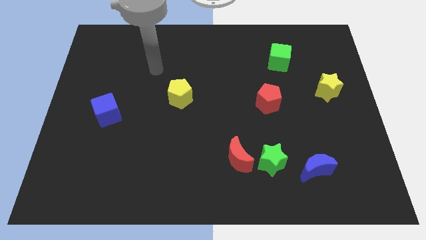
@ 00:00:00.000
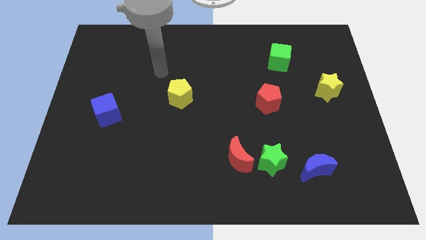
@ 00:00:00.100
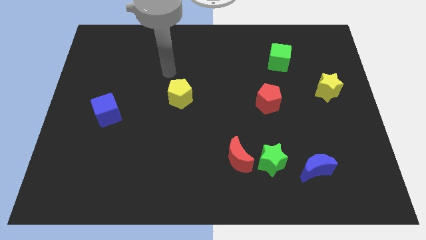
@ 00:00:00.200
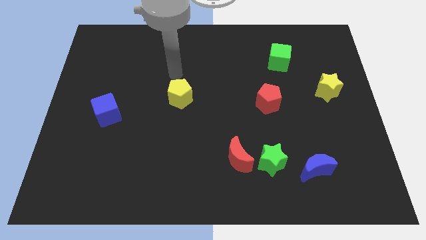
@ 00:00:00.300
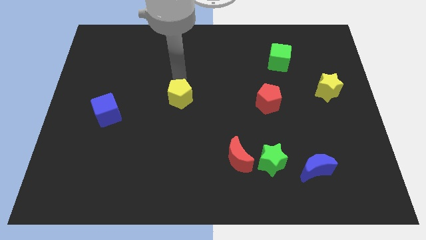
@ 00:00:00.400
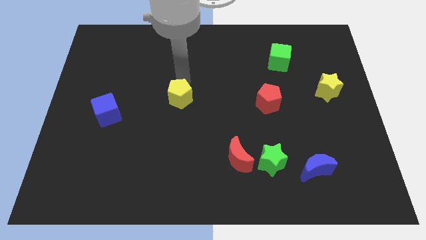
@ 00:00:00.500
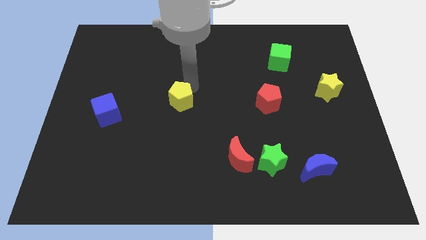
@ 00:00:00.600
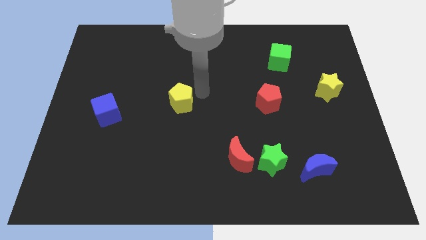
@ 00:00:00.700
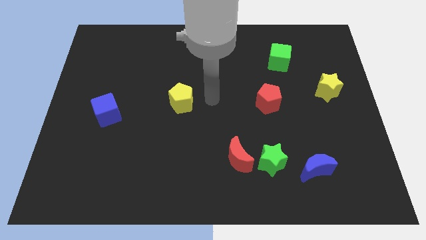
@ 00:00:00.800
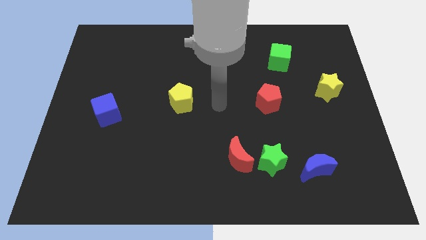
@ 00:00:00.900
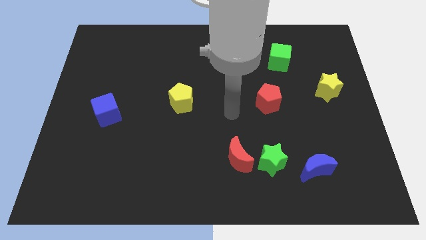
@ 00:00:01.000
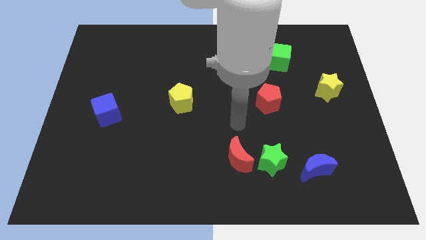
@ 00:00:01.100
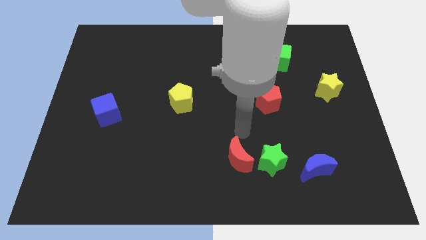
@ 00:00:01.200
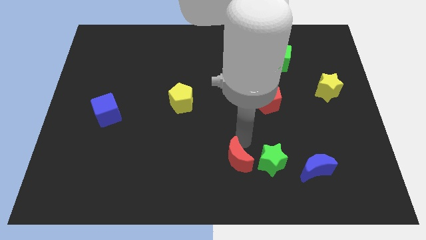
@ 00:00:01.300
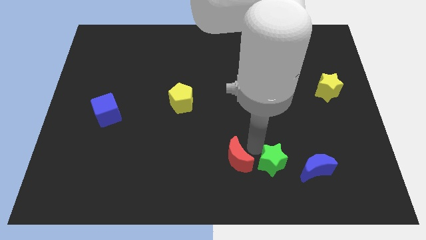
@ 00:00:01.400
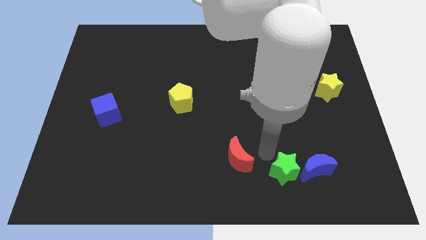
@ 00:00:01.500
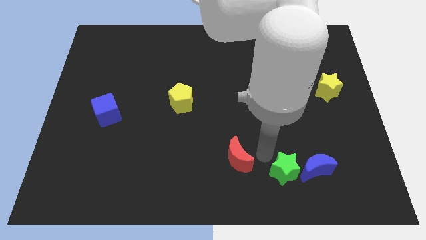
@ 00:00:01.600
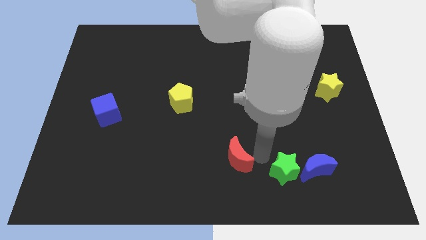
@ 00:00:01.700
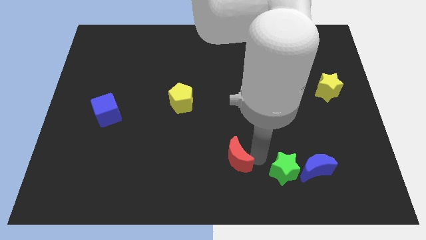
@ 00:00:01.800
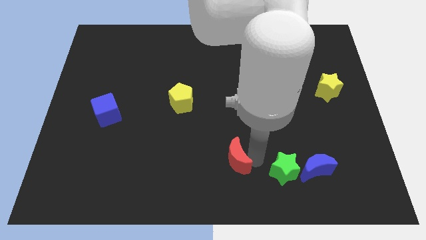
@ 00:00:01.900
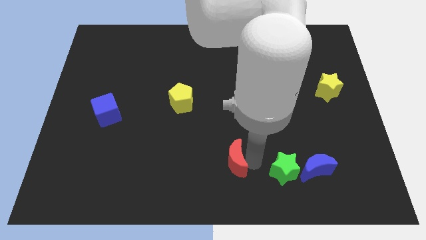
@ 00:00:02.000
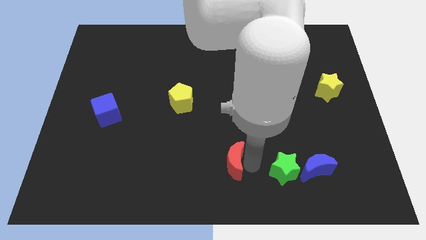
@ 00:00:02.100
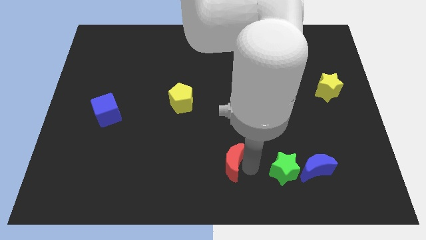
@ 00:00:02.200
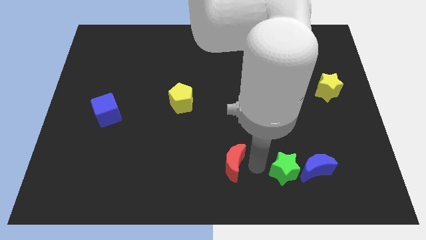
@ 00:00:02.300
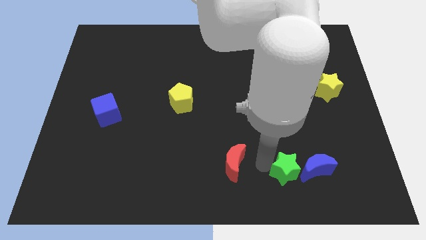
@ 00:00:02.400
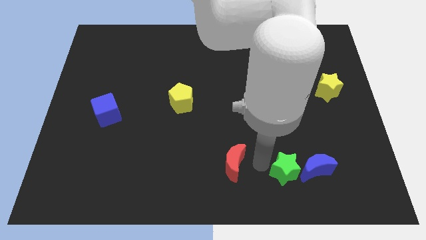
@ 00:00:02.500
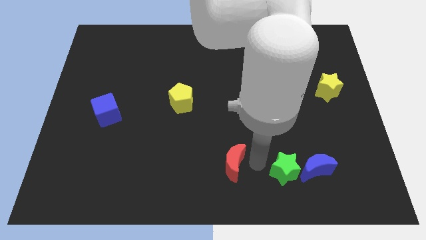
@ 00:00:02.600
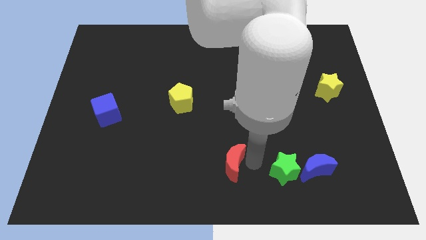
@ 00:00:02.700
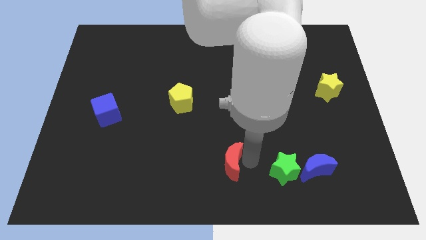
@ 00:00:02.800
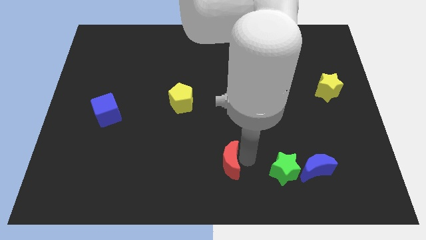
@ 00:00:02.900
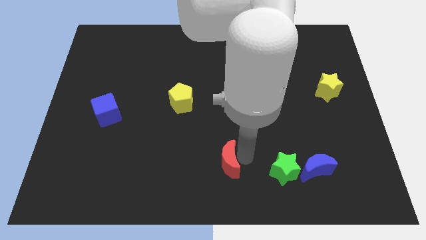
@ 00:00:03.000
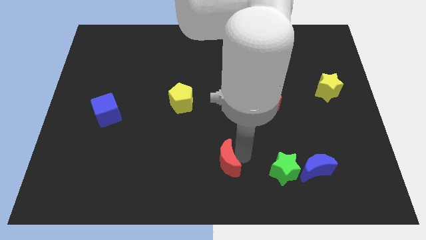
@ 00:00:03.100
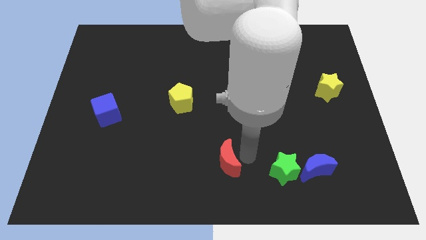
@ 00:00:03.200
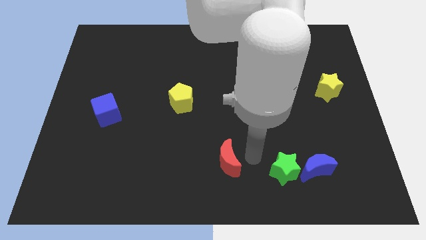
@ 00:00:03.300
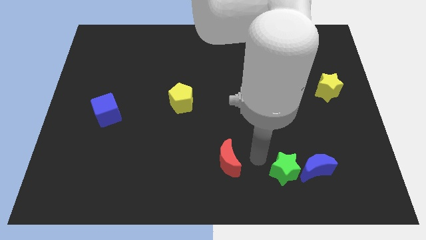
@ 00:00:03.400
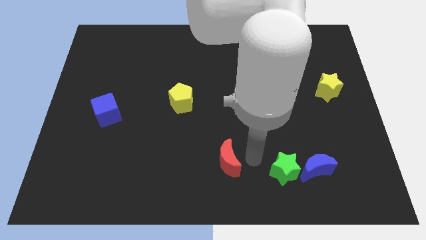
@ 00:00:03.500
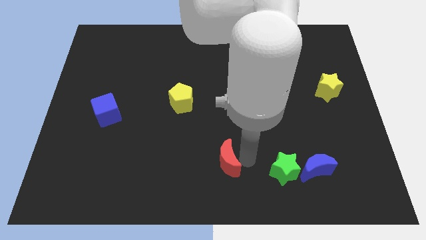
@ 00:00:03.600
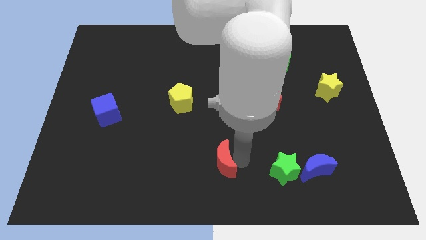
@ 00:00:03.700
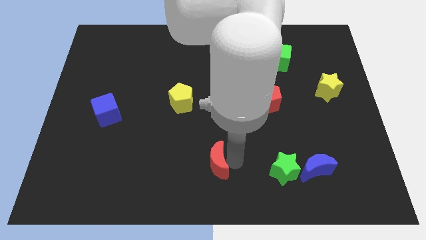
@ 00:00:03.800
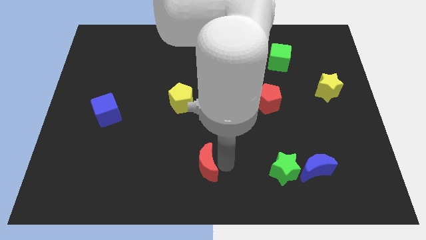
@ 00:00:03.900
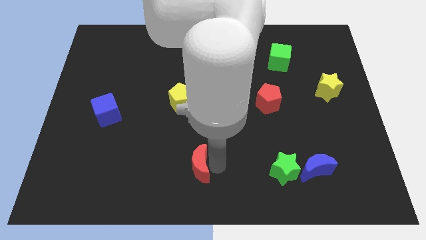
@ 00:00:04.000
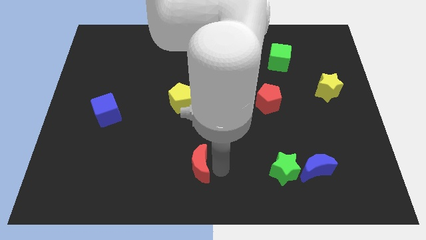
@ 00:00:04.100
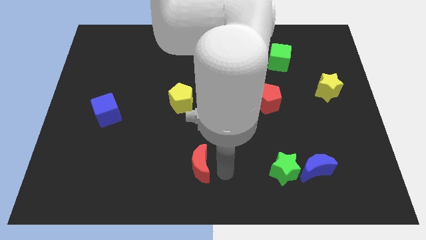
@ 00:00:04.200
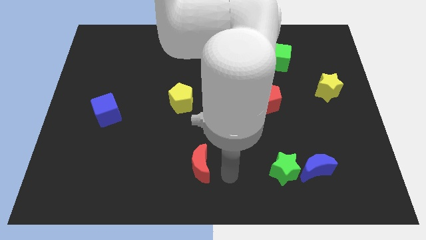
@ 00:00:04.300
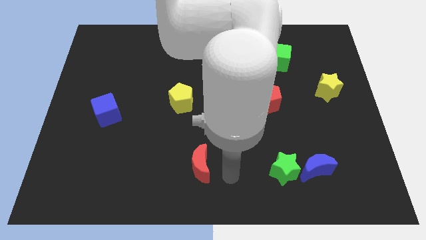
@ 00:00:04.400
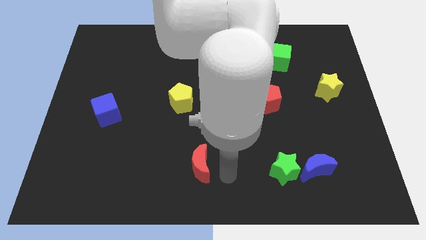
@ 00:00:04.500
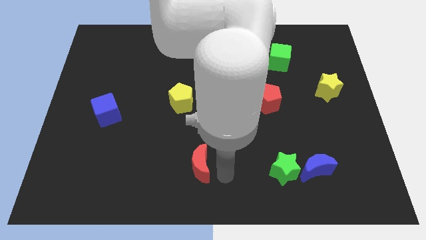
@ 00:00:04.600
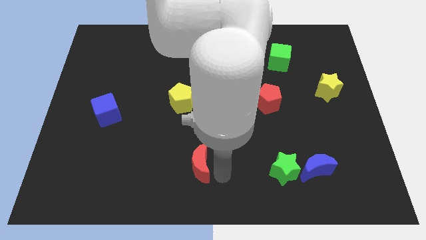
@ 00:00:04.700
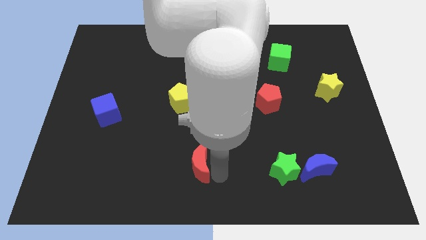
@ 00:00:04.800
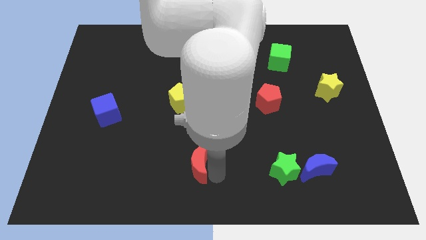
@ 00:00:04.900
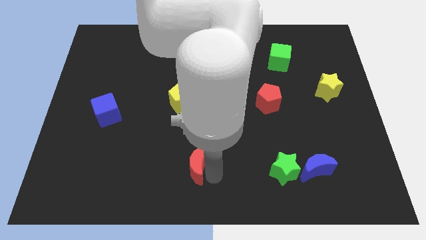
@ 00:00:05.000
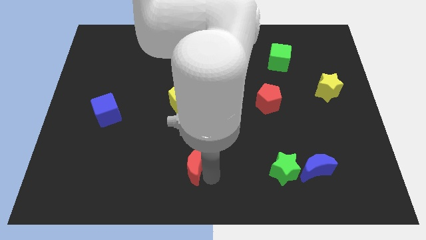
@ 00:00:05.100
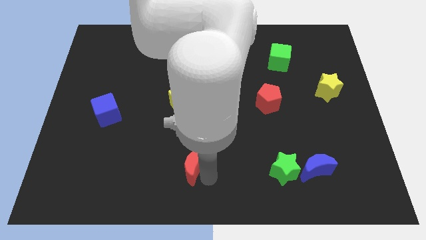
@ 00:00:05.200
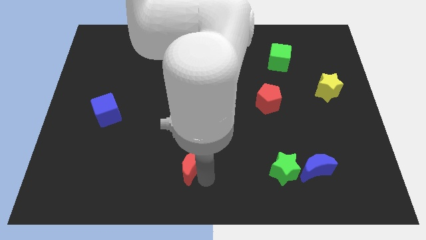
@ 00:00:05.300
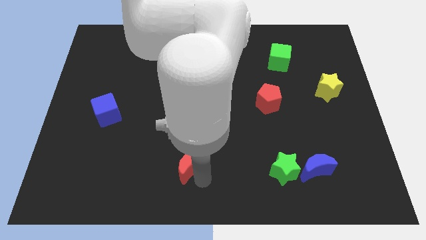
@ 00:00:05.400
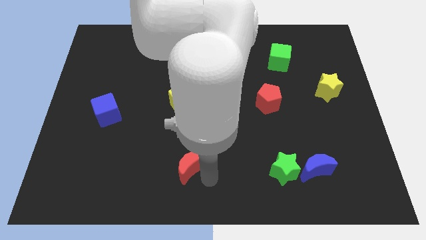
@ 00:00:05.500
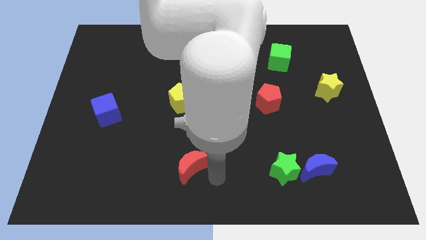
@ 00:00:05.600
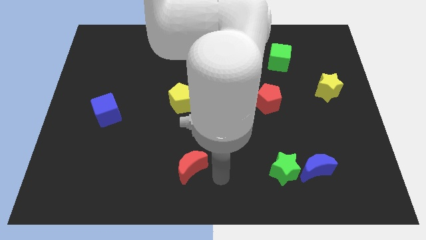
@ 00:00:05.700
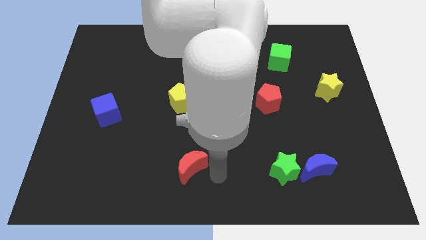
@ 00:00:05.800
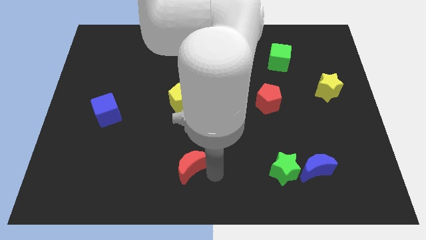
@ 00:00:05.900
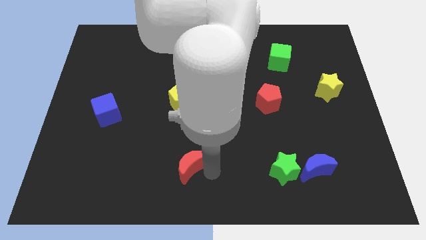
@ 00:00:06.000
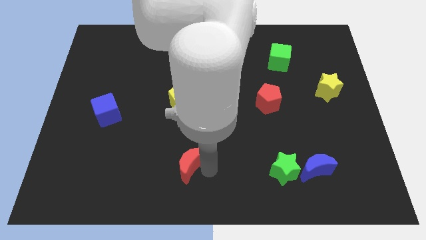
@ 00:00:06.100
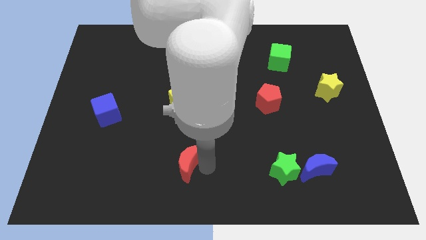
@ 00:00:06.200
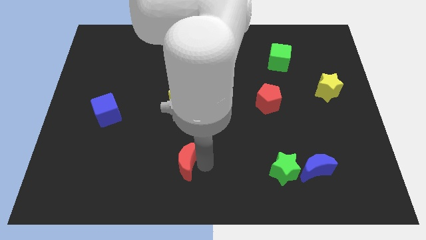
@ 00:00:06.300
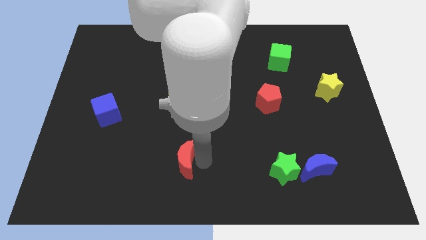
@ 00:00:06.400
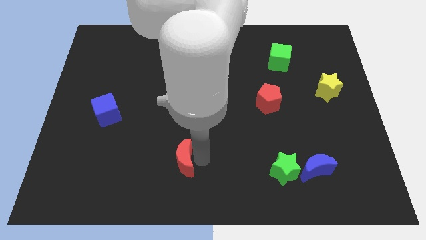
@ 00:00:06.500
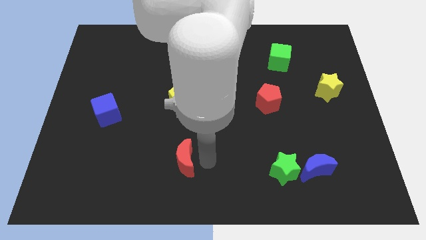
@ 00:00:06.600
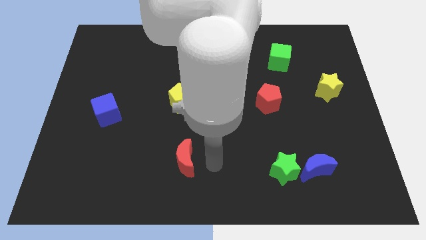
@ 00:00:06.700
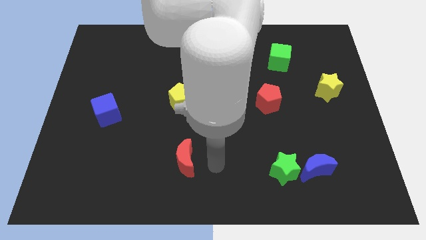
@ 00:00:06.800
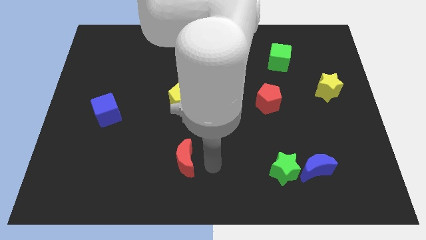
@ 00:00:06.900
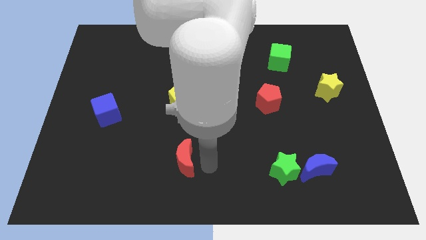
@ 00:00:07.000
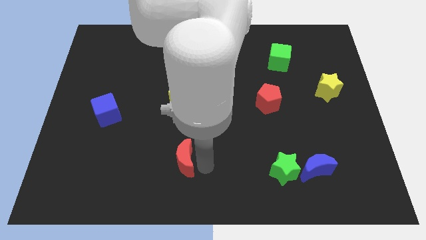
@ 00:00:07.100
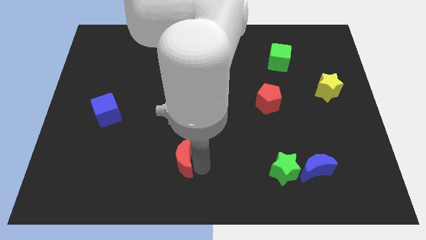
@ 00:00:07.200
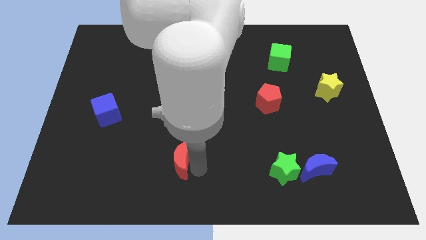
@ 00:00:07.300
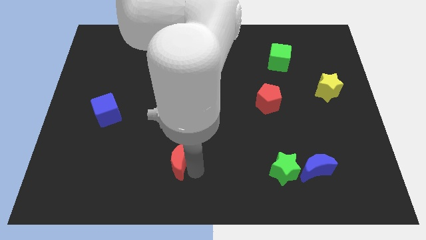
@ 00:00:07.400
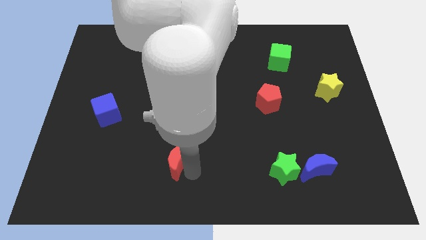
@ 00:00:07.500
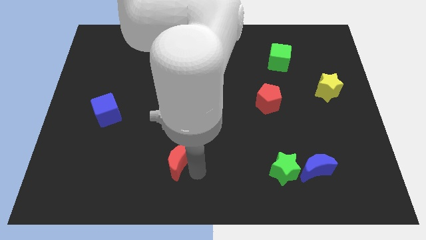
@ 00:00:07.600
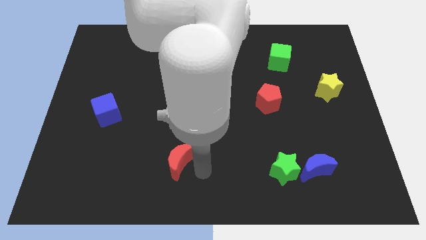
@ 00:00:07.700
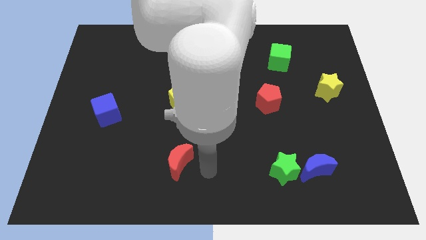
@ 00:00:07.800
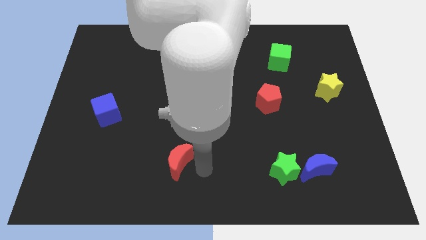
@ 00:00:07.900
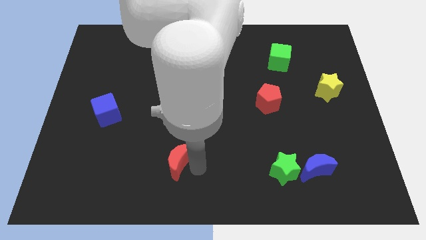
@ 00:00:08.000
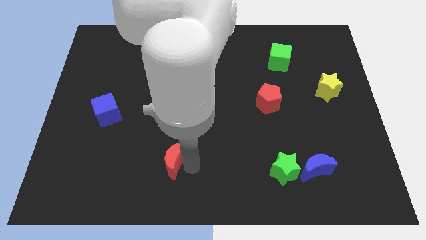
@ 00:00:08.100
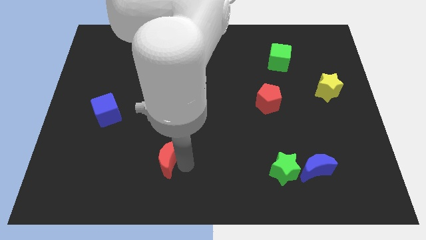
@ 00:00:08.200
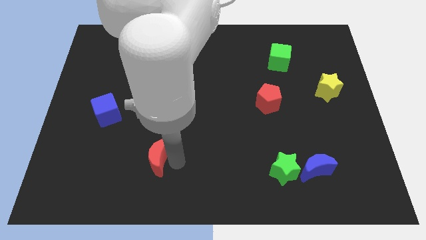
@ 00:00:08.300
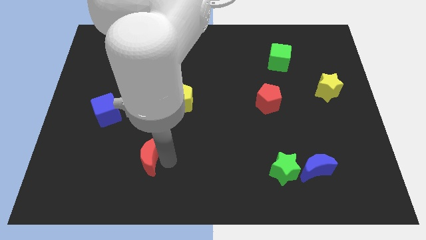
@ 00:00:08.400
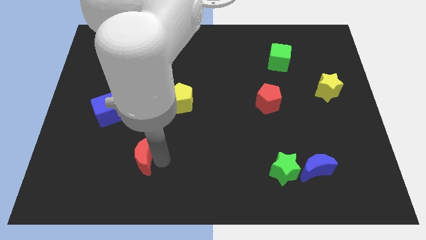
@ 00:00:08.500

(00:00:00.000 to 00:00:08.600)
move the red moon to the left
